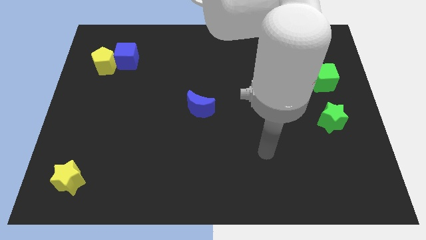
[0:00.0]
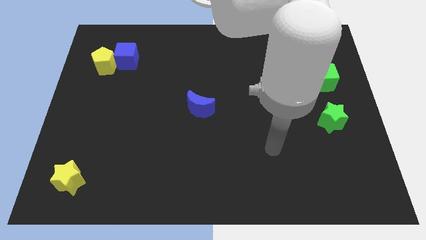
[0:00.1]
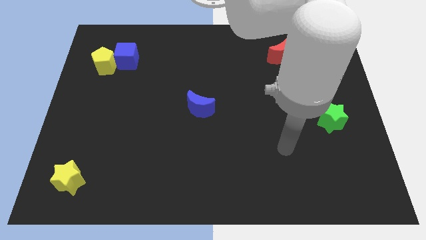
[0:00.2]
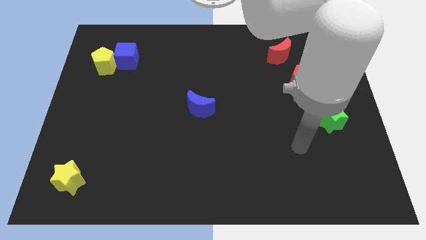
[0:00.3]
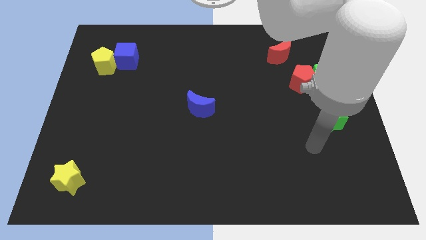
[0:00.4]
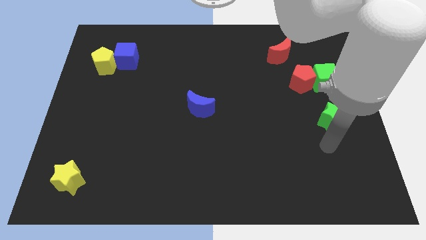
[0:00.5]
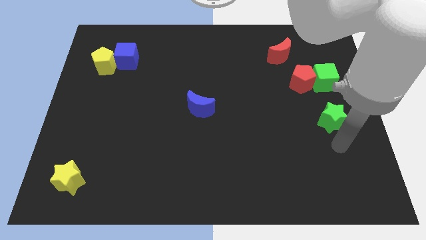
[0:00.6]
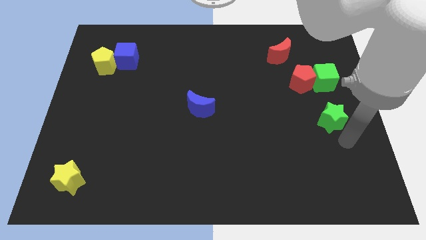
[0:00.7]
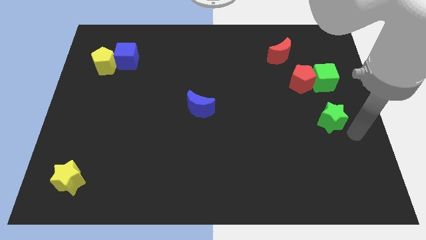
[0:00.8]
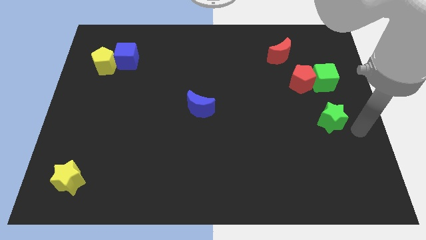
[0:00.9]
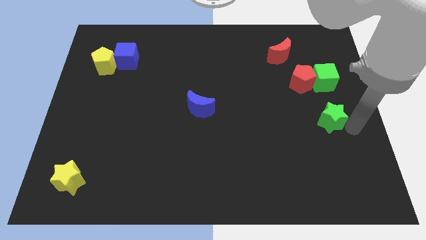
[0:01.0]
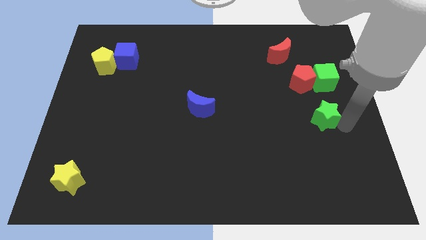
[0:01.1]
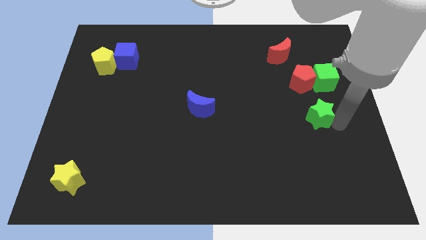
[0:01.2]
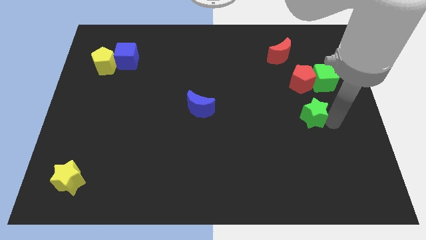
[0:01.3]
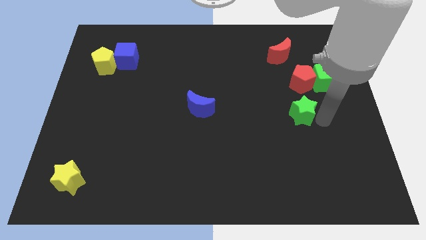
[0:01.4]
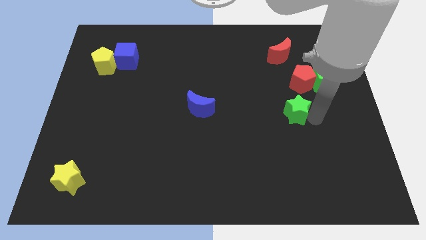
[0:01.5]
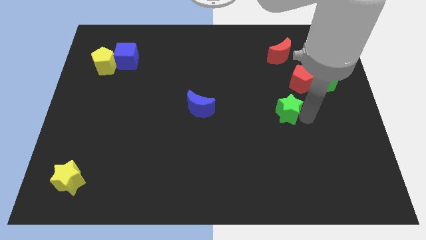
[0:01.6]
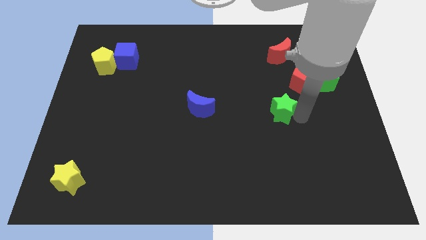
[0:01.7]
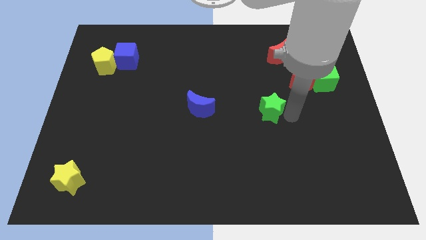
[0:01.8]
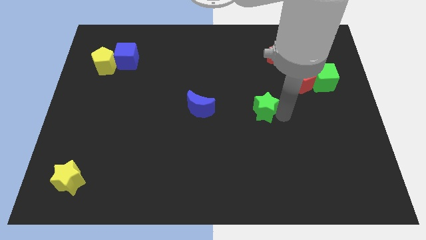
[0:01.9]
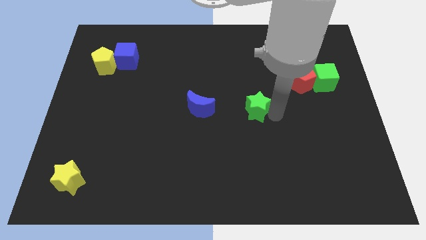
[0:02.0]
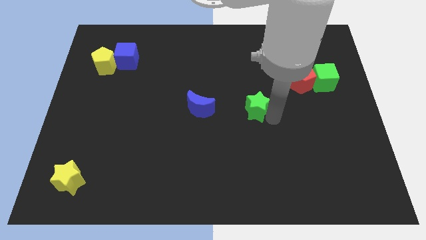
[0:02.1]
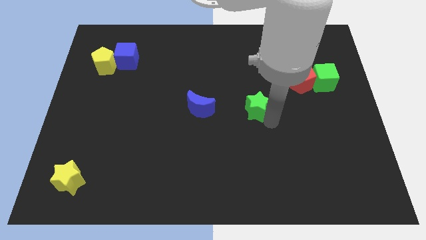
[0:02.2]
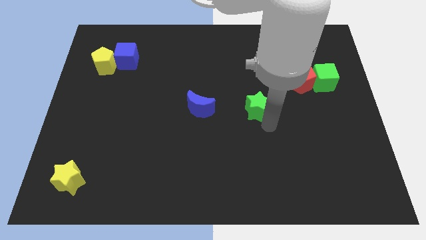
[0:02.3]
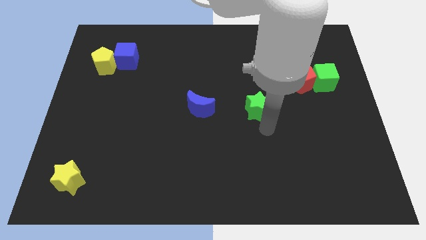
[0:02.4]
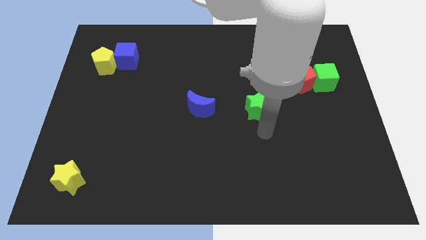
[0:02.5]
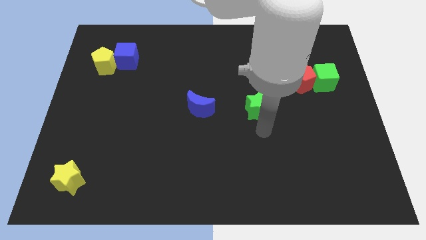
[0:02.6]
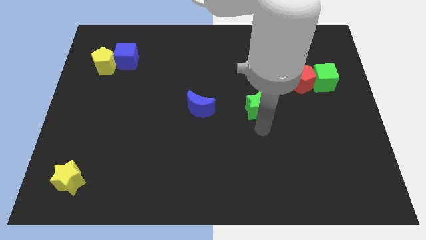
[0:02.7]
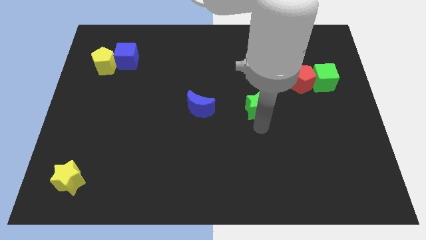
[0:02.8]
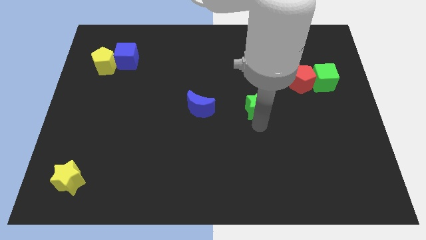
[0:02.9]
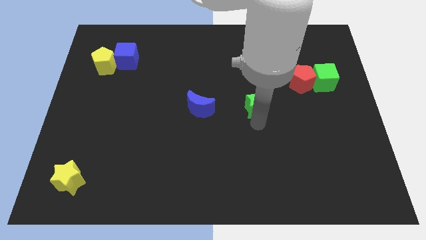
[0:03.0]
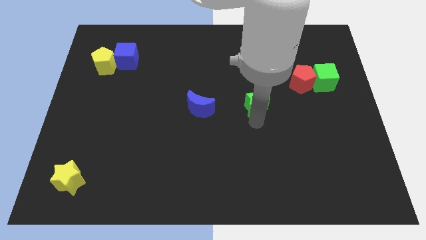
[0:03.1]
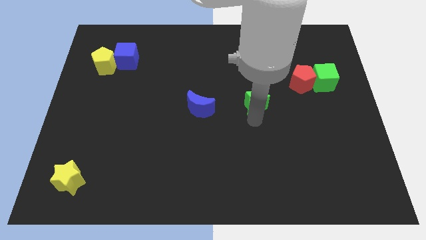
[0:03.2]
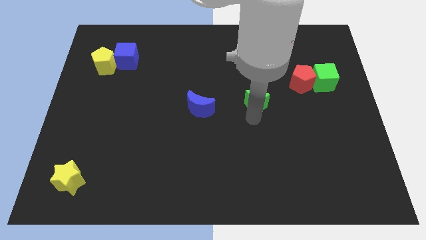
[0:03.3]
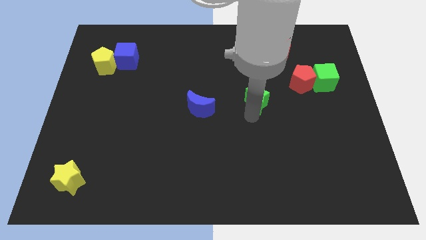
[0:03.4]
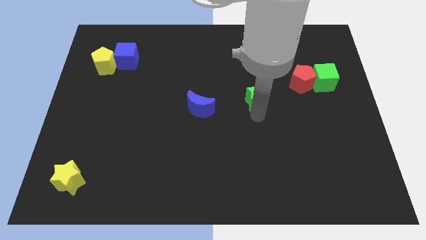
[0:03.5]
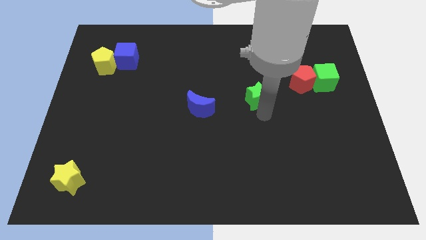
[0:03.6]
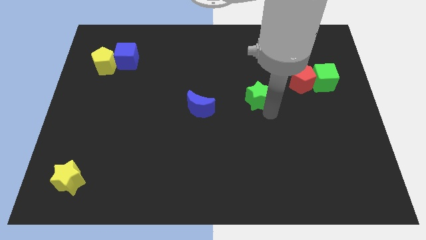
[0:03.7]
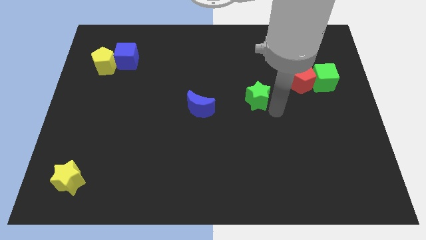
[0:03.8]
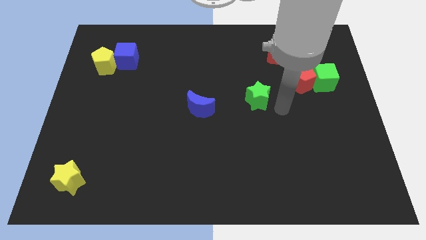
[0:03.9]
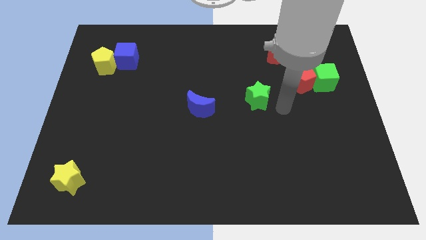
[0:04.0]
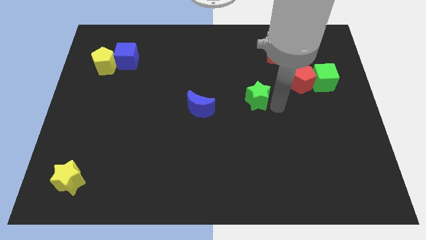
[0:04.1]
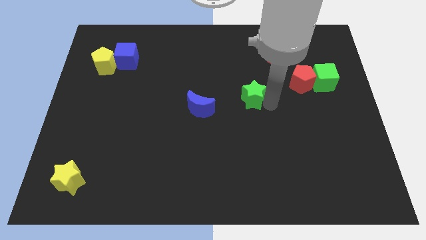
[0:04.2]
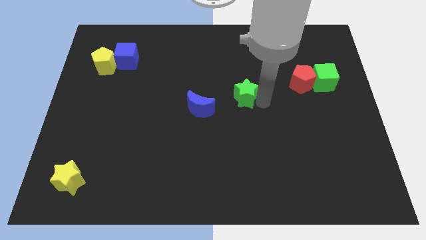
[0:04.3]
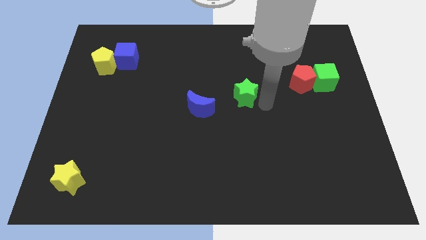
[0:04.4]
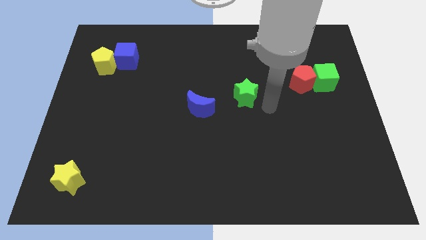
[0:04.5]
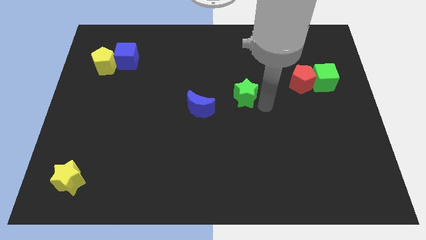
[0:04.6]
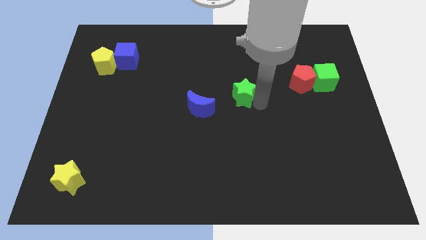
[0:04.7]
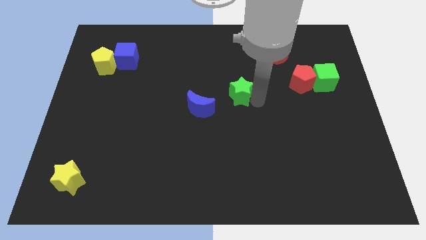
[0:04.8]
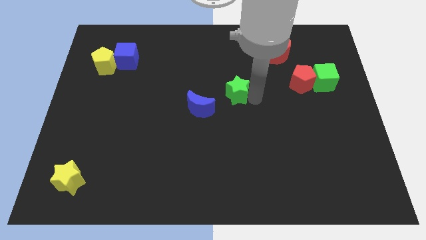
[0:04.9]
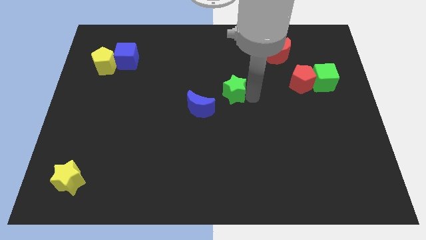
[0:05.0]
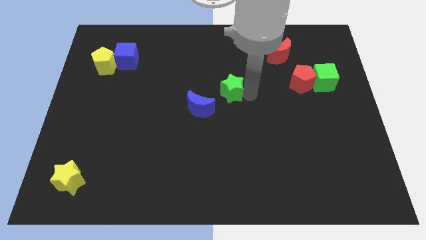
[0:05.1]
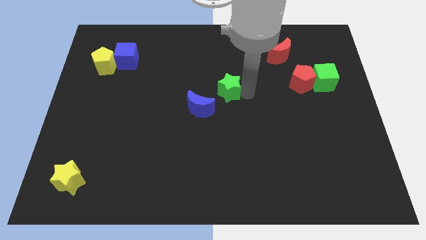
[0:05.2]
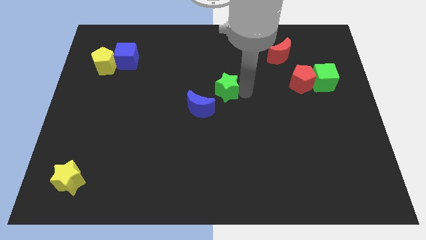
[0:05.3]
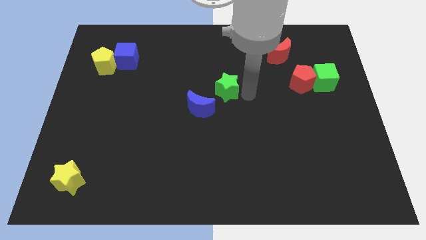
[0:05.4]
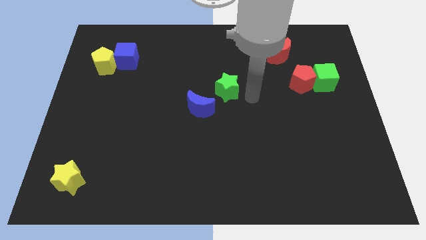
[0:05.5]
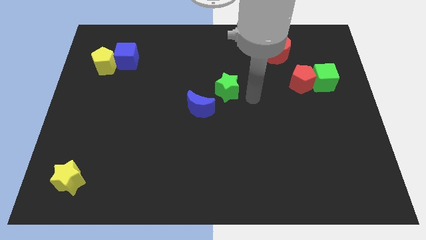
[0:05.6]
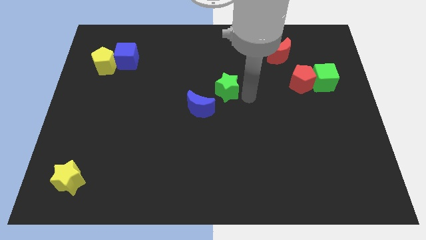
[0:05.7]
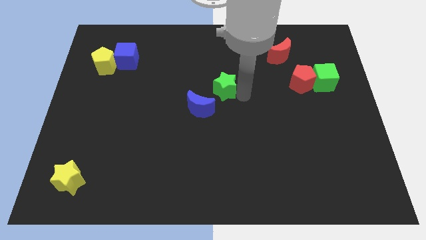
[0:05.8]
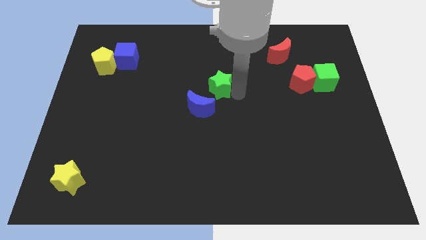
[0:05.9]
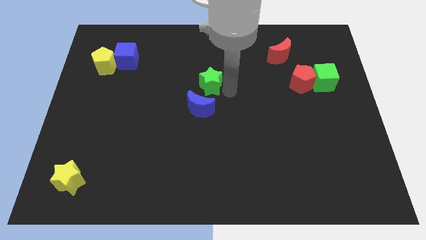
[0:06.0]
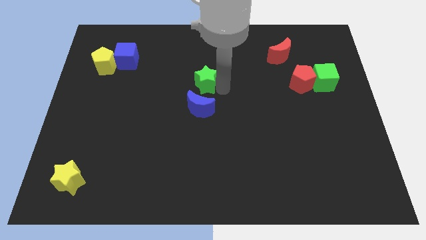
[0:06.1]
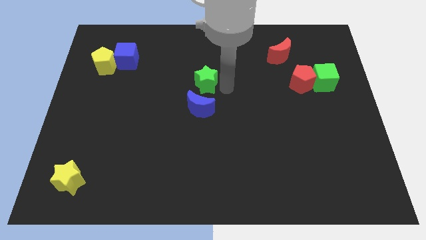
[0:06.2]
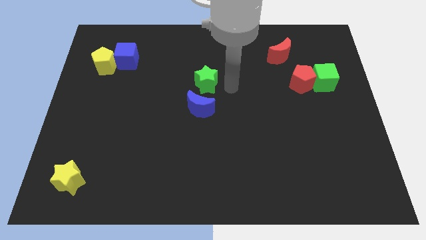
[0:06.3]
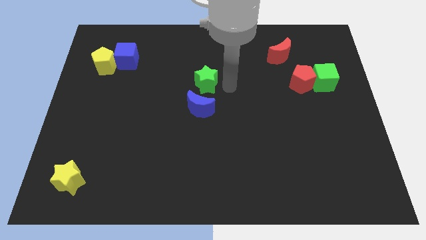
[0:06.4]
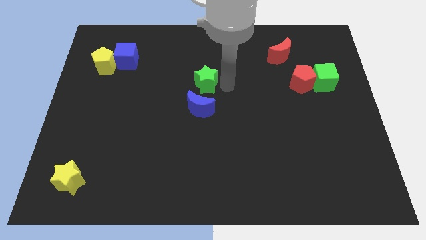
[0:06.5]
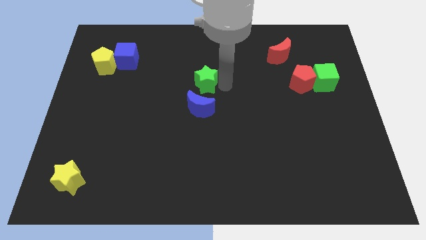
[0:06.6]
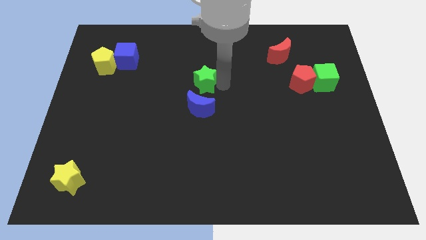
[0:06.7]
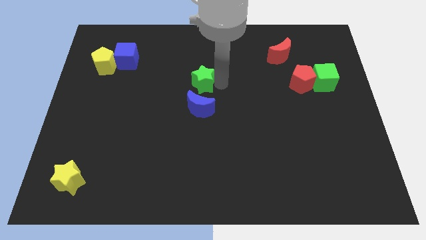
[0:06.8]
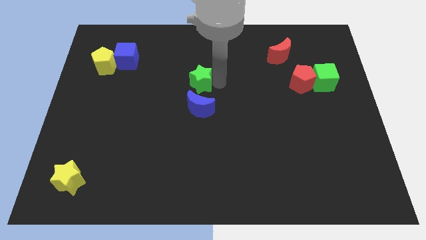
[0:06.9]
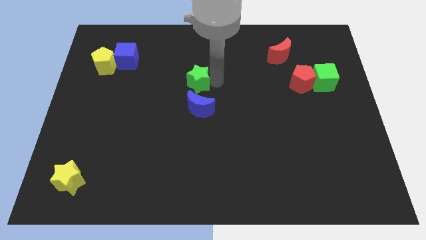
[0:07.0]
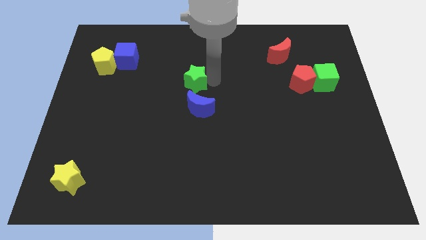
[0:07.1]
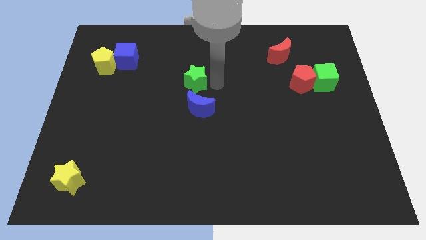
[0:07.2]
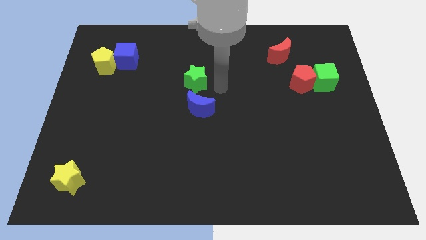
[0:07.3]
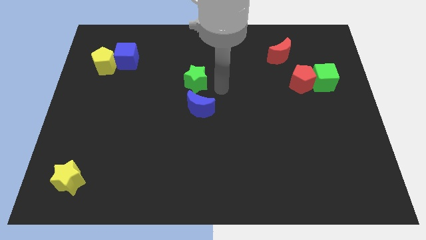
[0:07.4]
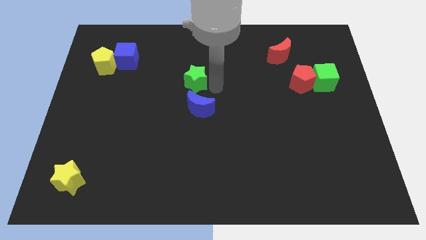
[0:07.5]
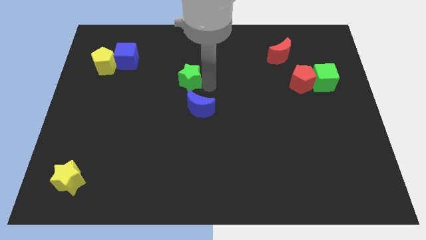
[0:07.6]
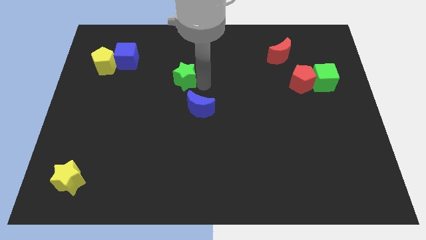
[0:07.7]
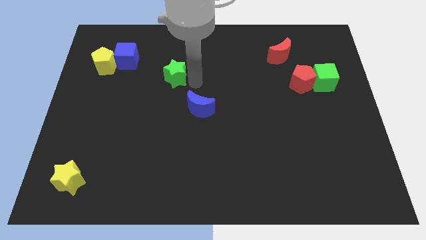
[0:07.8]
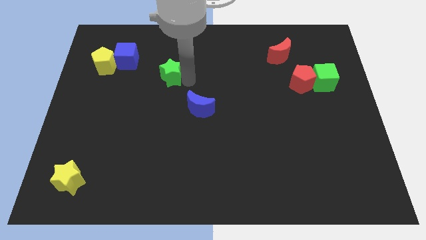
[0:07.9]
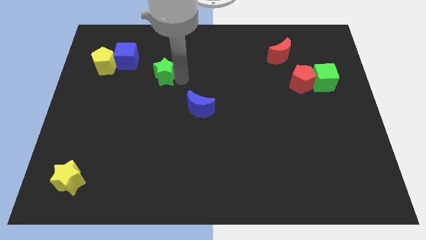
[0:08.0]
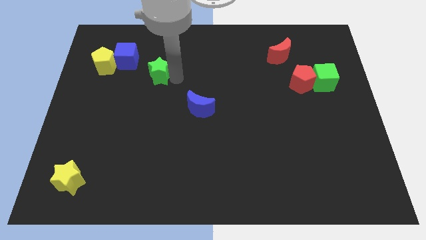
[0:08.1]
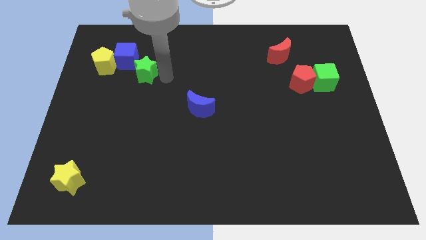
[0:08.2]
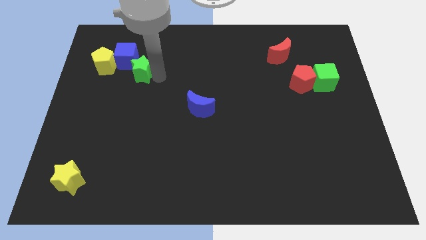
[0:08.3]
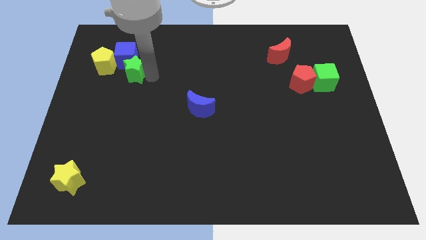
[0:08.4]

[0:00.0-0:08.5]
move the green star next to the blue cube
